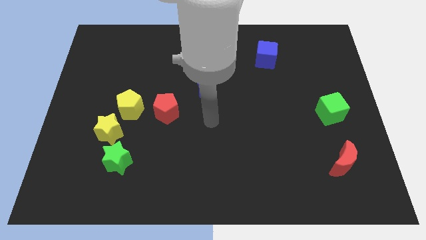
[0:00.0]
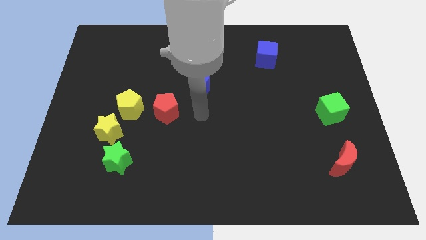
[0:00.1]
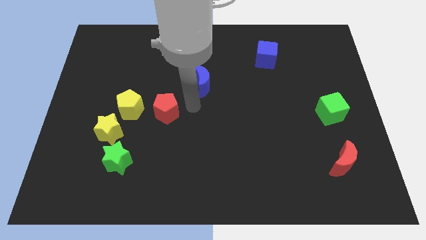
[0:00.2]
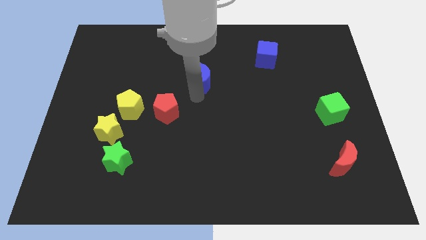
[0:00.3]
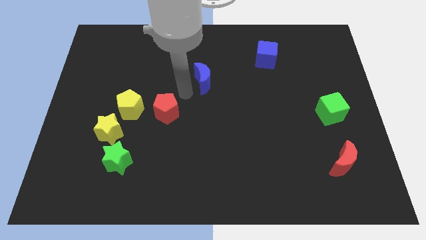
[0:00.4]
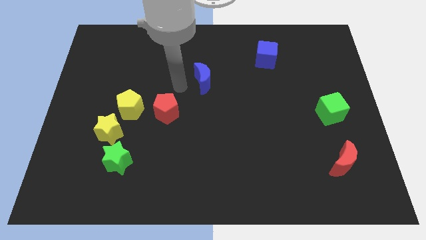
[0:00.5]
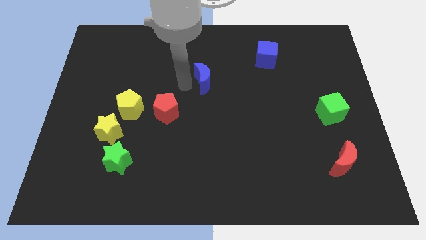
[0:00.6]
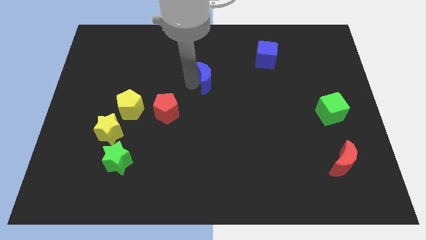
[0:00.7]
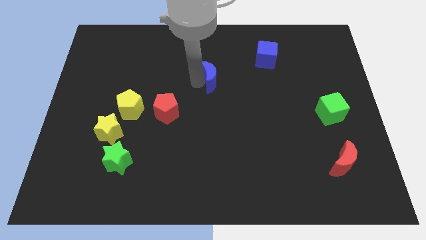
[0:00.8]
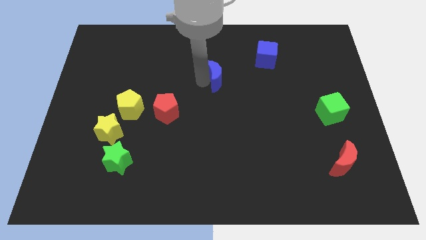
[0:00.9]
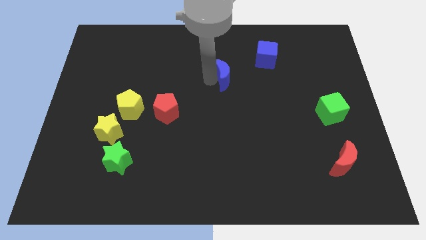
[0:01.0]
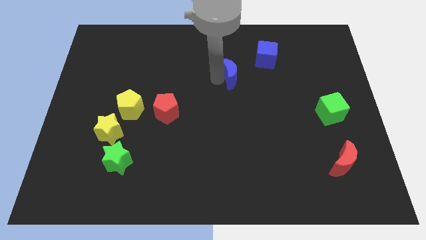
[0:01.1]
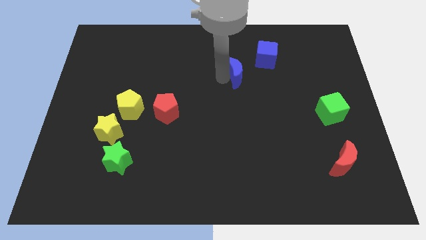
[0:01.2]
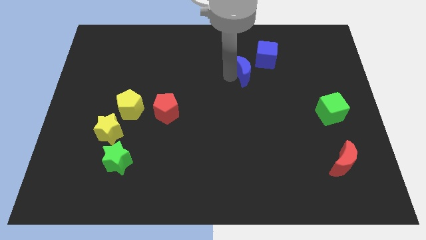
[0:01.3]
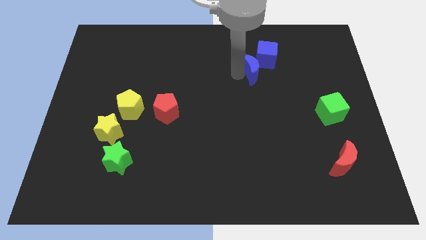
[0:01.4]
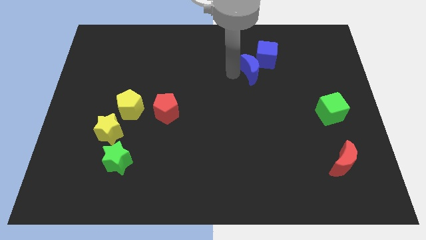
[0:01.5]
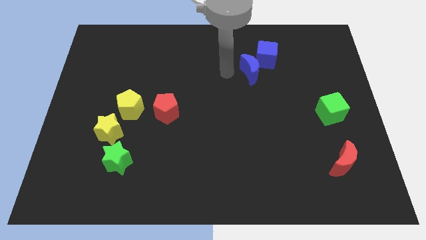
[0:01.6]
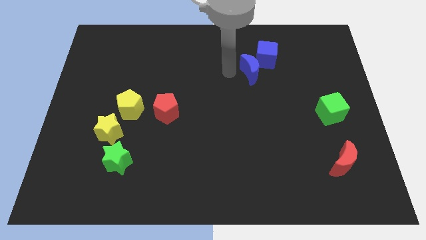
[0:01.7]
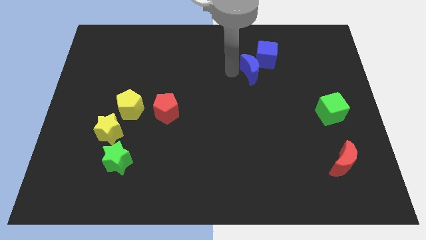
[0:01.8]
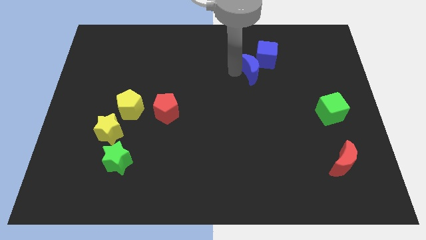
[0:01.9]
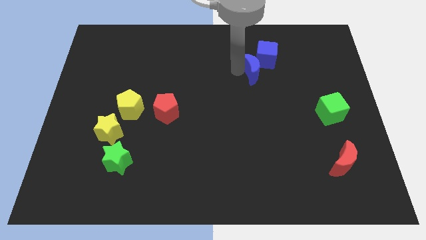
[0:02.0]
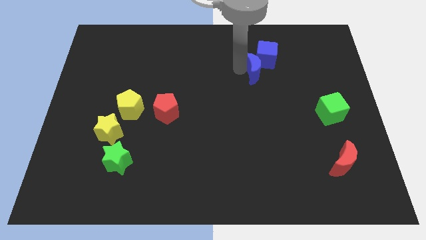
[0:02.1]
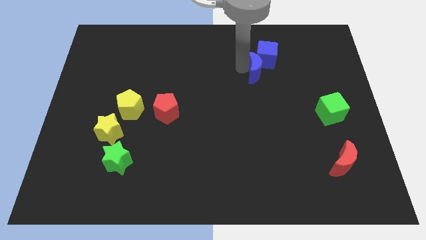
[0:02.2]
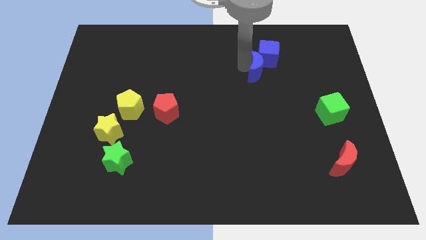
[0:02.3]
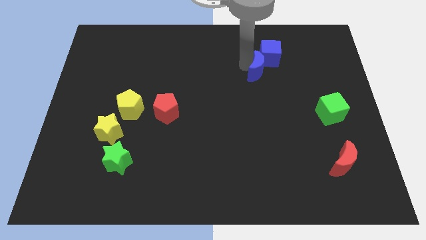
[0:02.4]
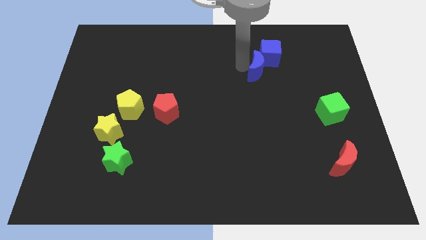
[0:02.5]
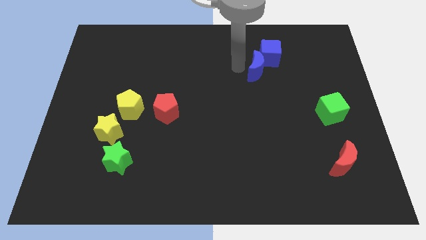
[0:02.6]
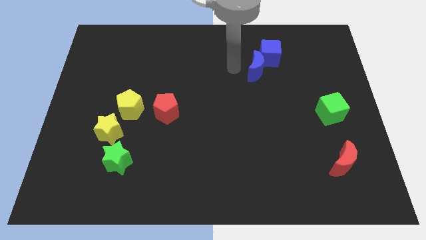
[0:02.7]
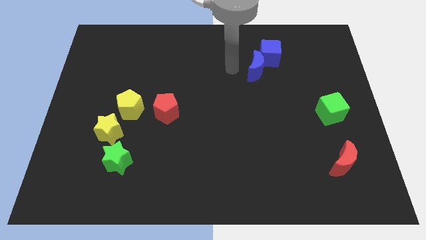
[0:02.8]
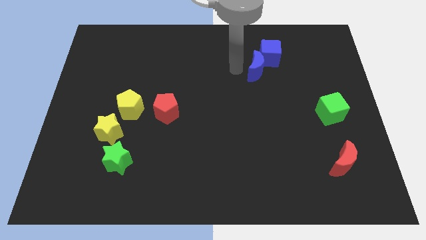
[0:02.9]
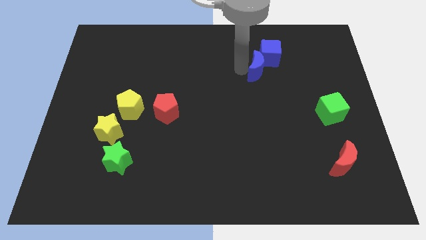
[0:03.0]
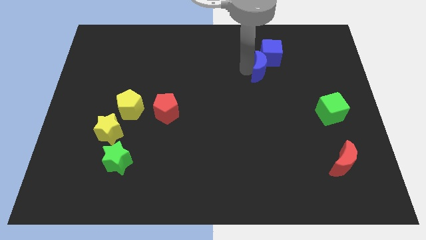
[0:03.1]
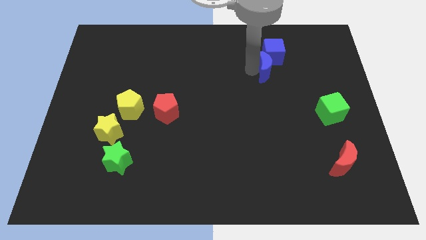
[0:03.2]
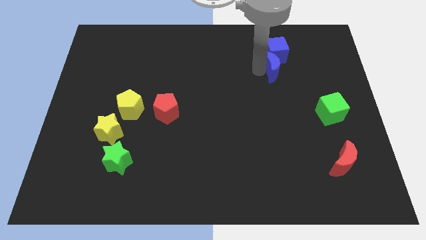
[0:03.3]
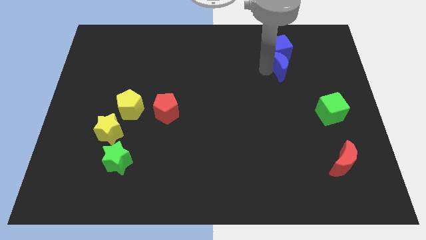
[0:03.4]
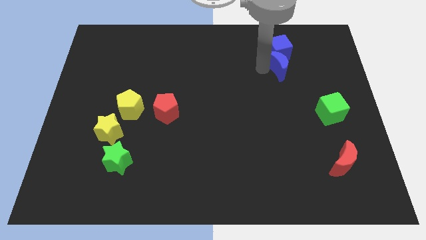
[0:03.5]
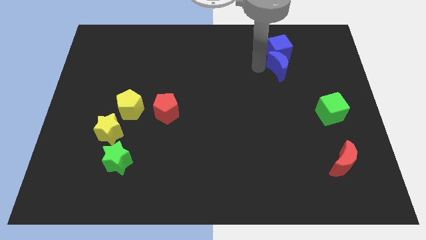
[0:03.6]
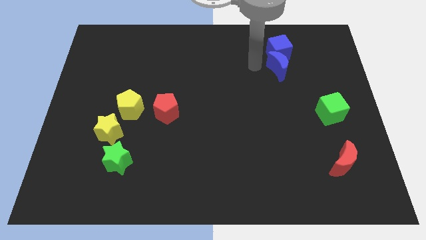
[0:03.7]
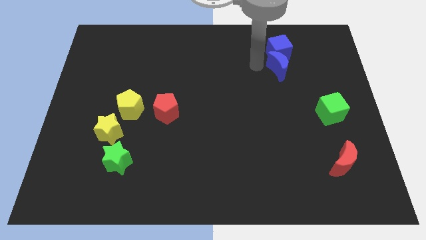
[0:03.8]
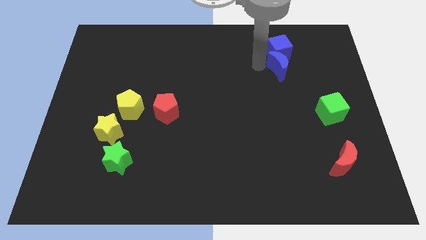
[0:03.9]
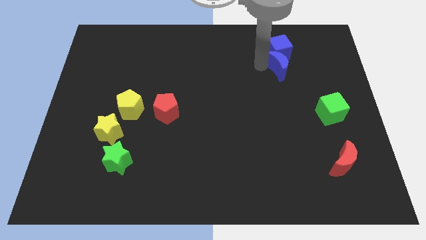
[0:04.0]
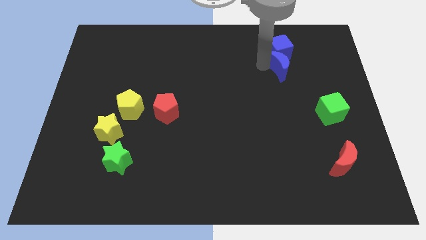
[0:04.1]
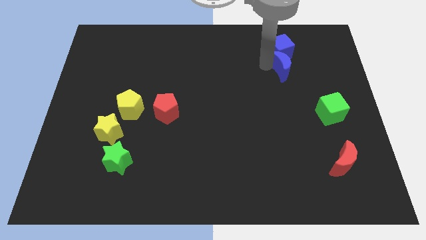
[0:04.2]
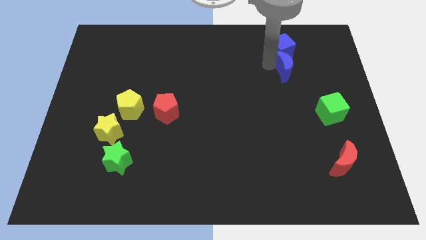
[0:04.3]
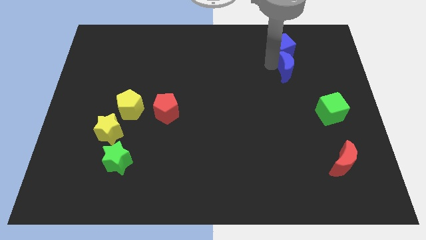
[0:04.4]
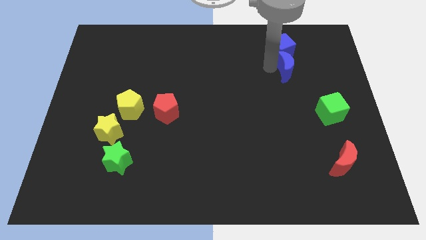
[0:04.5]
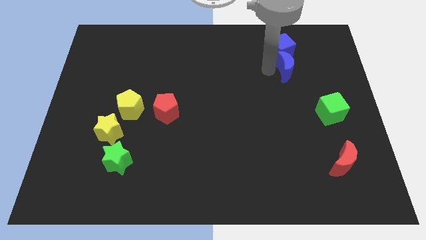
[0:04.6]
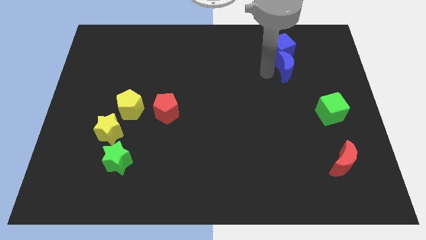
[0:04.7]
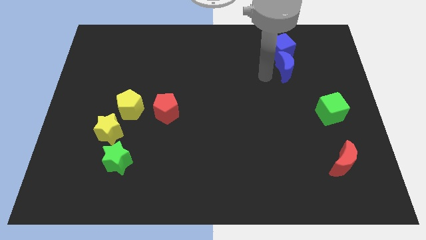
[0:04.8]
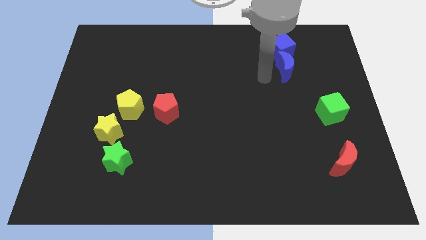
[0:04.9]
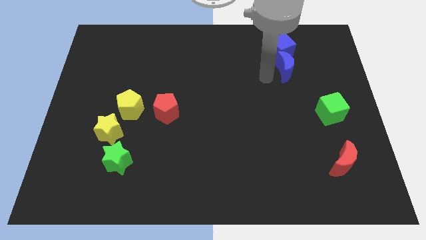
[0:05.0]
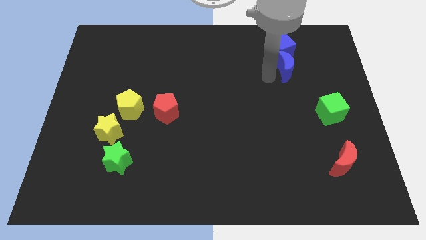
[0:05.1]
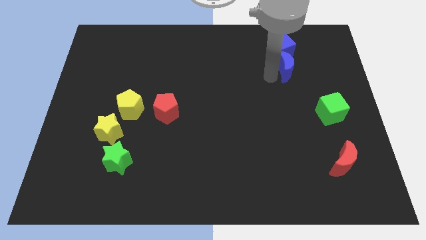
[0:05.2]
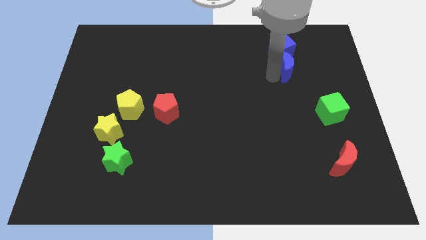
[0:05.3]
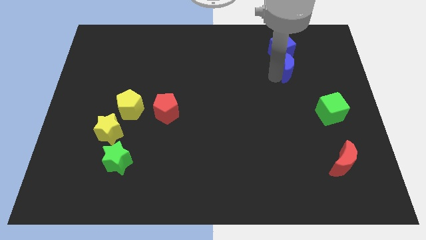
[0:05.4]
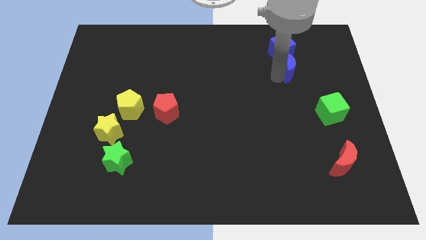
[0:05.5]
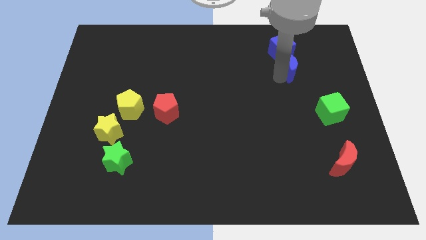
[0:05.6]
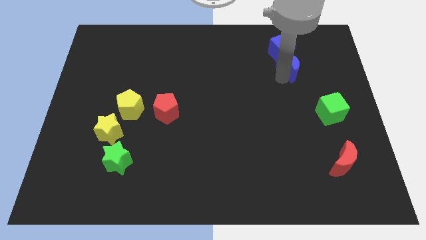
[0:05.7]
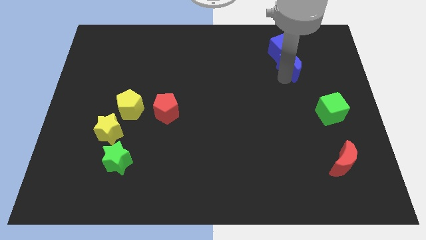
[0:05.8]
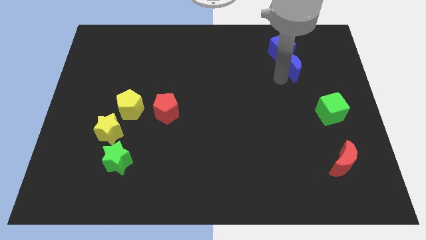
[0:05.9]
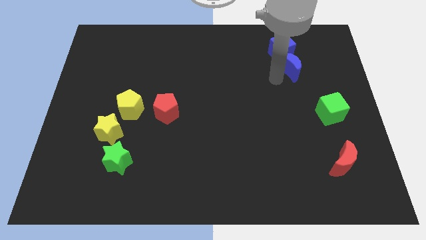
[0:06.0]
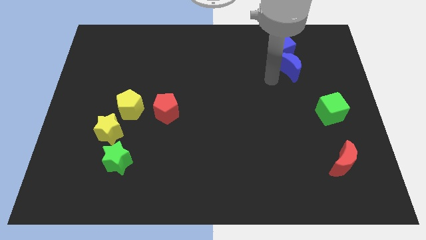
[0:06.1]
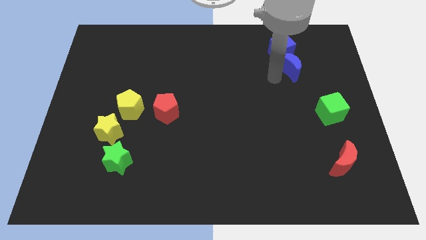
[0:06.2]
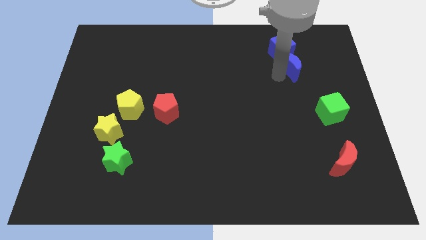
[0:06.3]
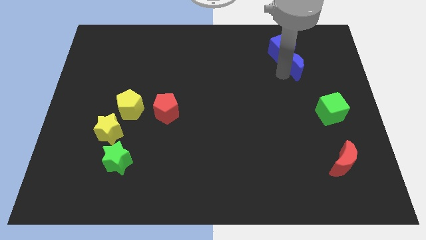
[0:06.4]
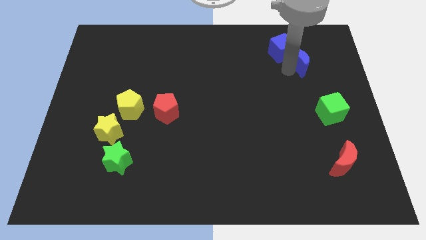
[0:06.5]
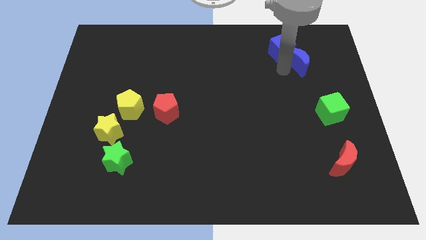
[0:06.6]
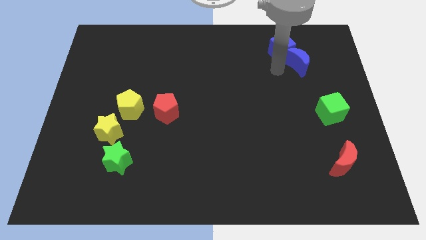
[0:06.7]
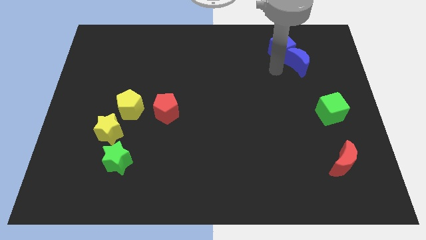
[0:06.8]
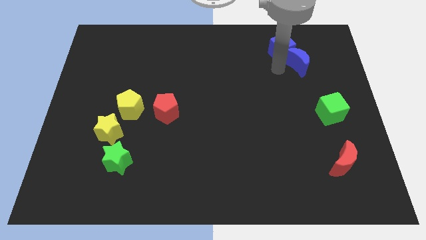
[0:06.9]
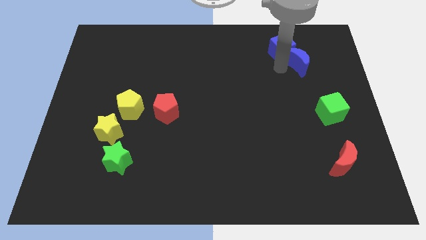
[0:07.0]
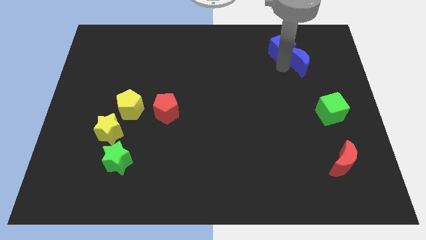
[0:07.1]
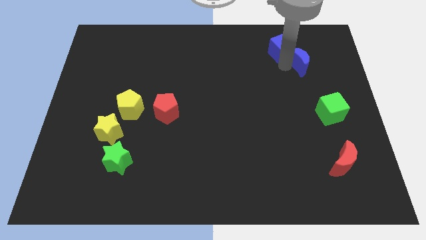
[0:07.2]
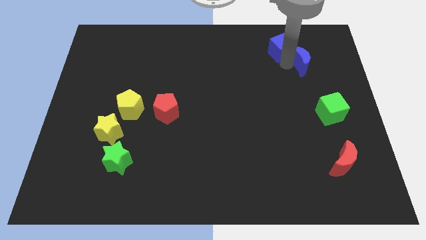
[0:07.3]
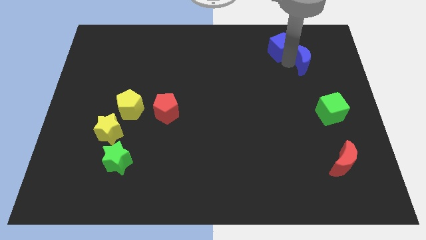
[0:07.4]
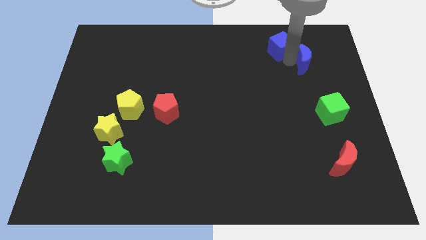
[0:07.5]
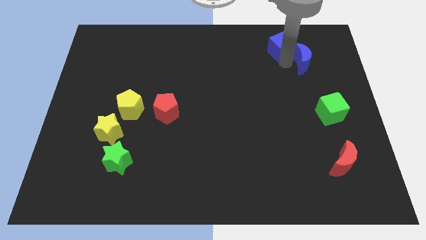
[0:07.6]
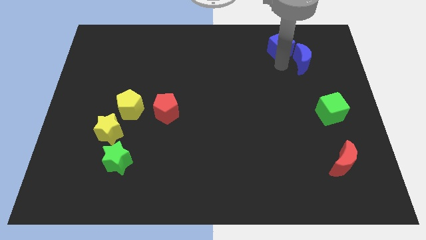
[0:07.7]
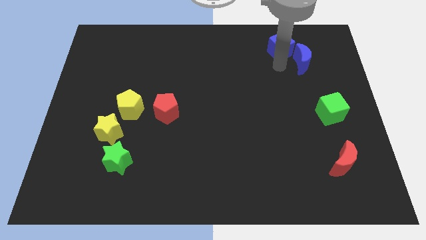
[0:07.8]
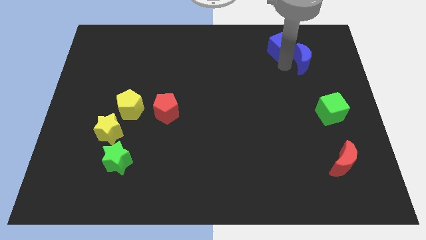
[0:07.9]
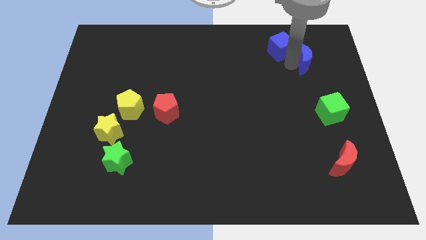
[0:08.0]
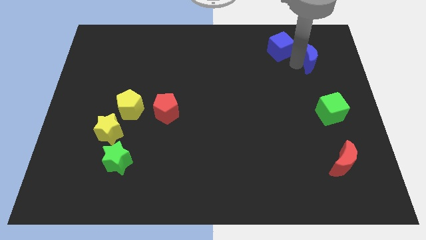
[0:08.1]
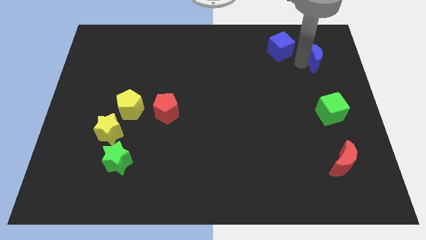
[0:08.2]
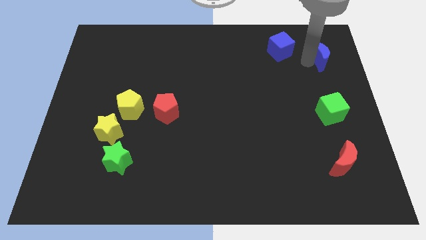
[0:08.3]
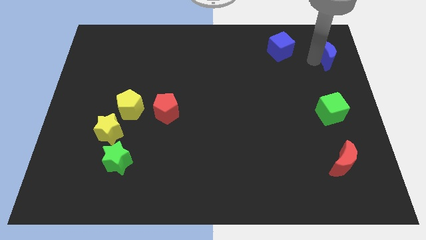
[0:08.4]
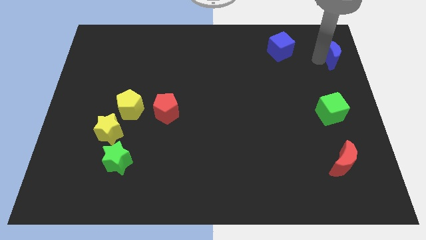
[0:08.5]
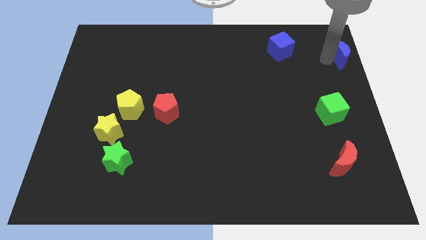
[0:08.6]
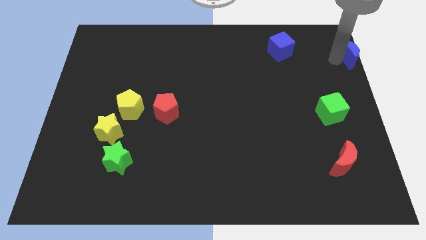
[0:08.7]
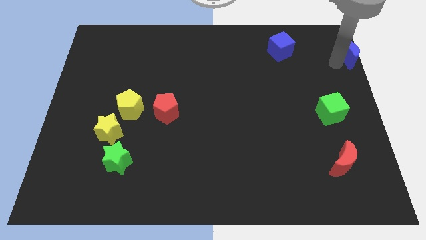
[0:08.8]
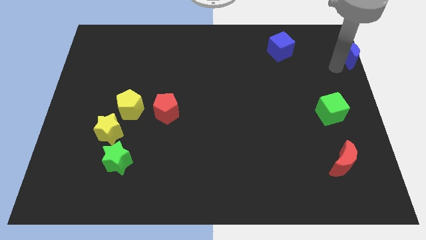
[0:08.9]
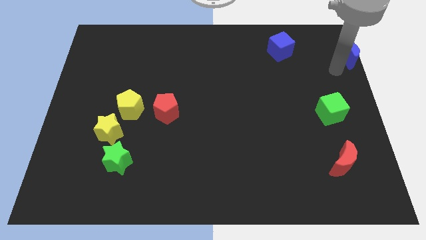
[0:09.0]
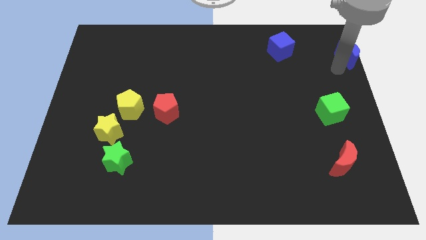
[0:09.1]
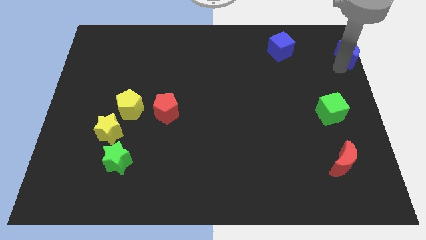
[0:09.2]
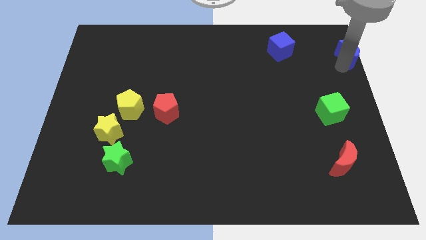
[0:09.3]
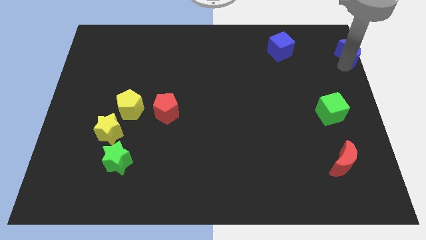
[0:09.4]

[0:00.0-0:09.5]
put the blue moon to the top right
